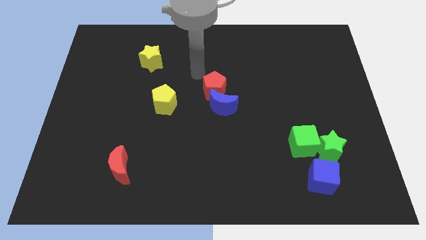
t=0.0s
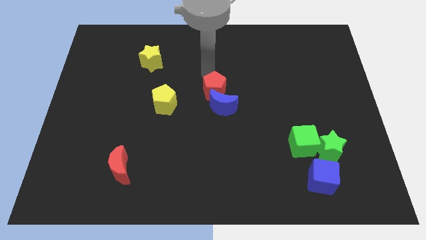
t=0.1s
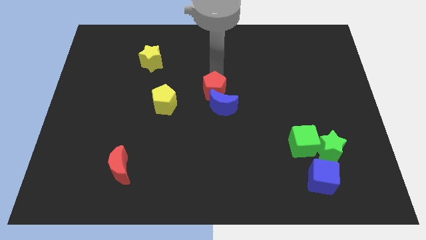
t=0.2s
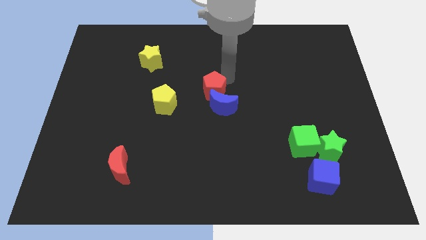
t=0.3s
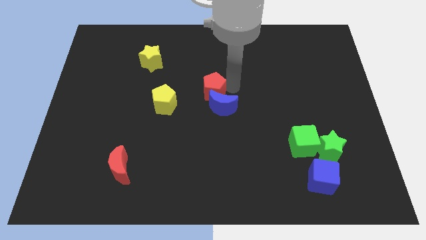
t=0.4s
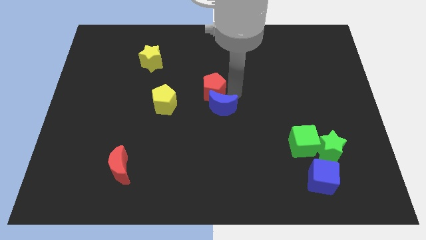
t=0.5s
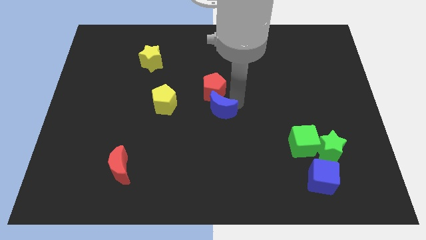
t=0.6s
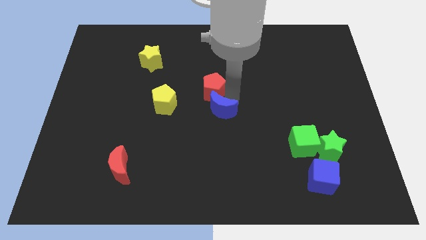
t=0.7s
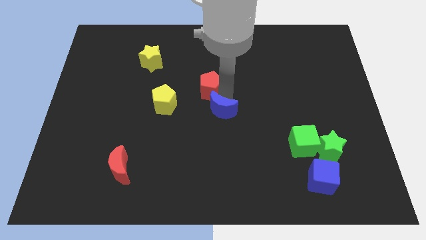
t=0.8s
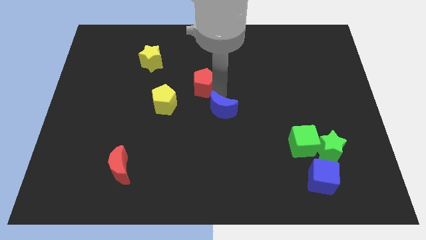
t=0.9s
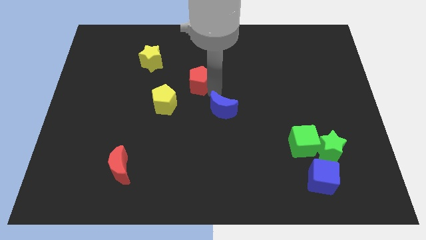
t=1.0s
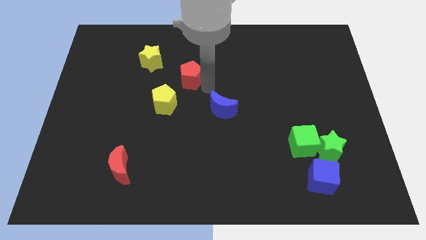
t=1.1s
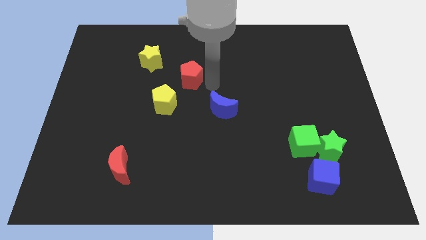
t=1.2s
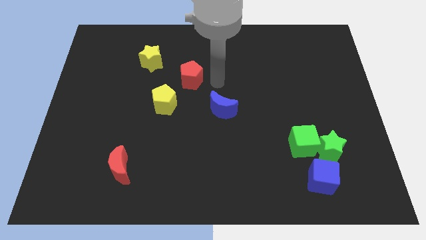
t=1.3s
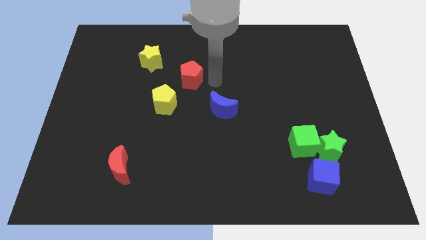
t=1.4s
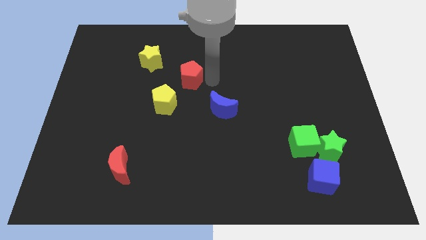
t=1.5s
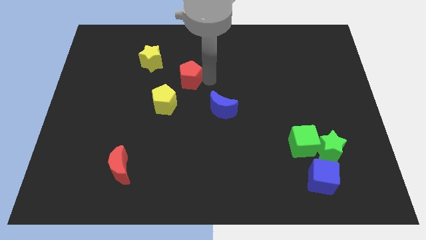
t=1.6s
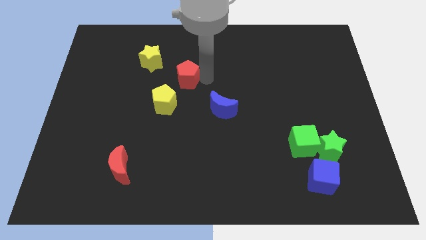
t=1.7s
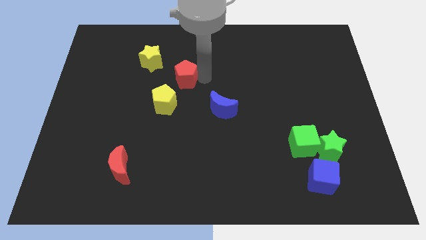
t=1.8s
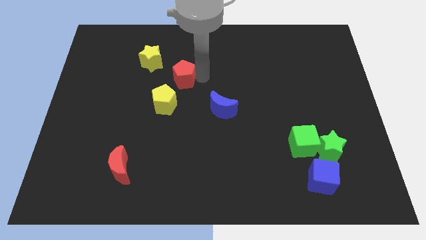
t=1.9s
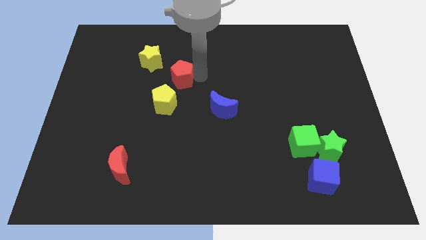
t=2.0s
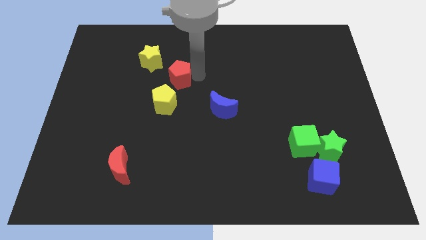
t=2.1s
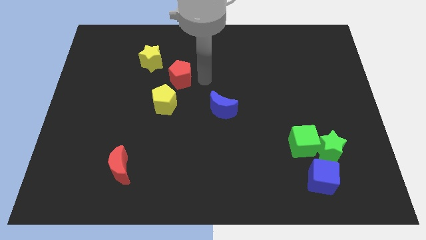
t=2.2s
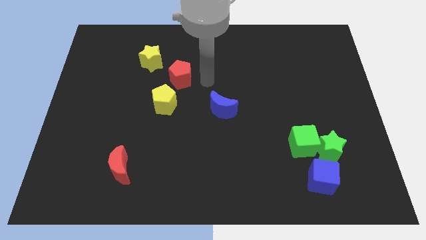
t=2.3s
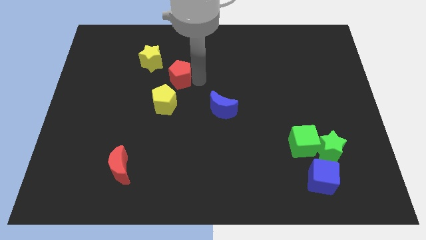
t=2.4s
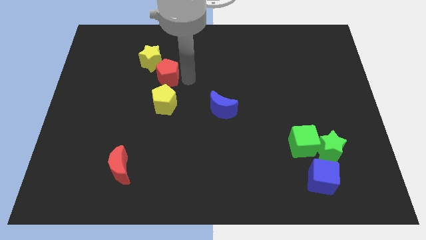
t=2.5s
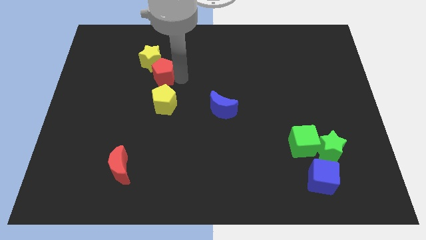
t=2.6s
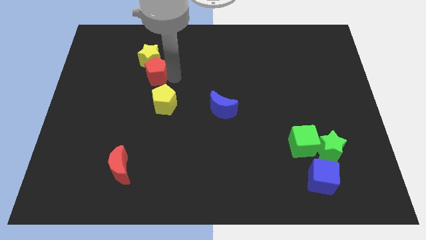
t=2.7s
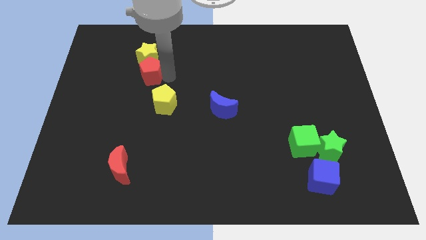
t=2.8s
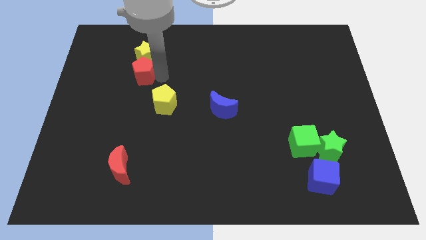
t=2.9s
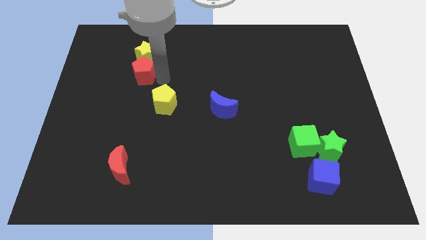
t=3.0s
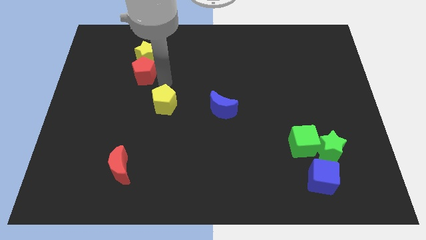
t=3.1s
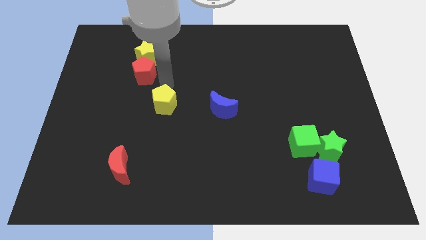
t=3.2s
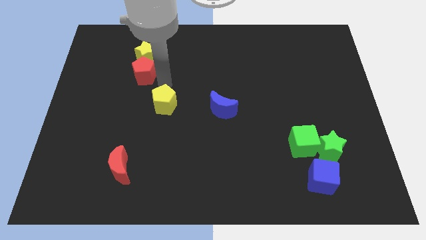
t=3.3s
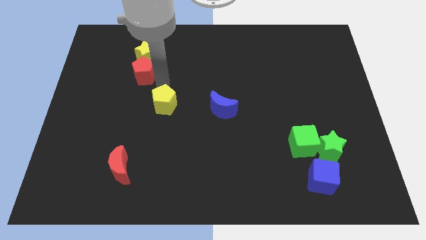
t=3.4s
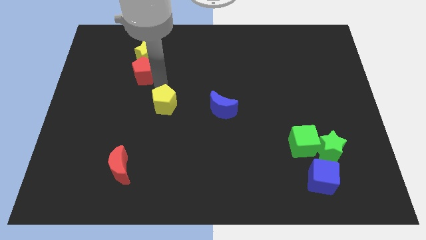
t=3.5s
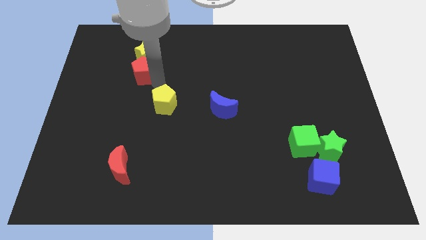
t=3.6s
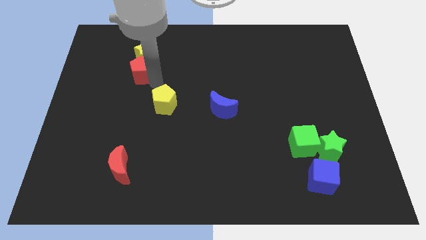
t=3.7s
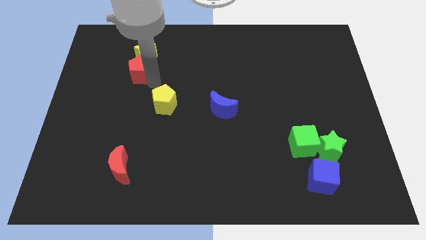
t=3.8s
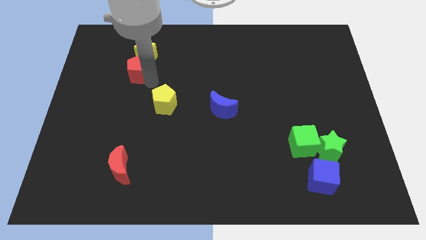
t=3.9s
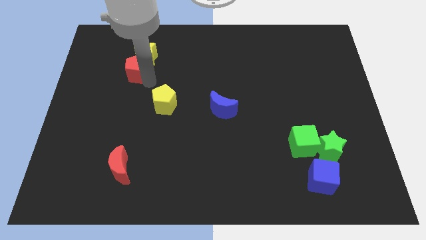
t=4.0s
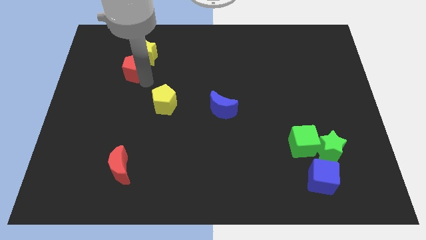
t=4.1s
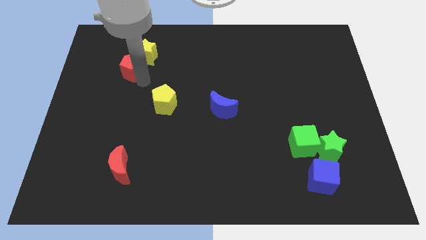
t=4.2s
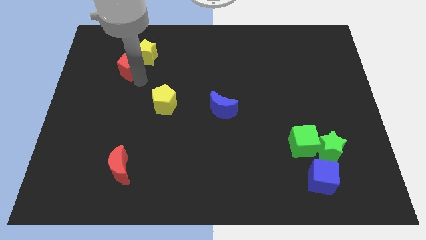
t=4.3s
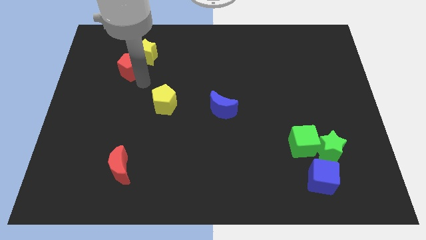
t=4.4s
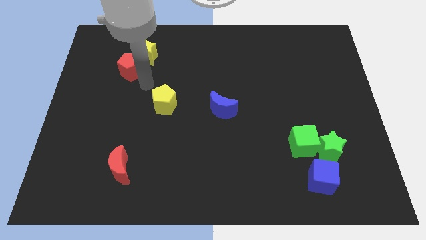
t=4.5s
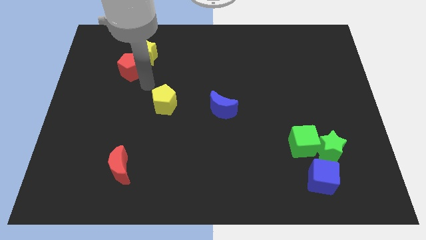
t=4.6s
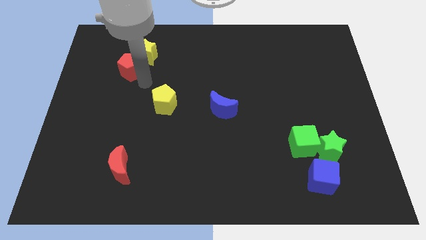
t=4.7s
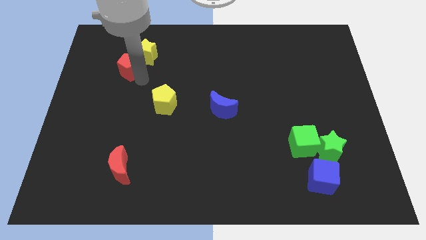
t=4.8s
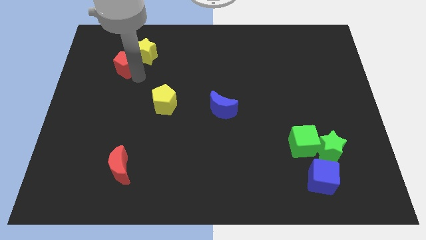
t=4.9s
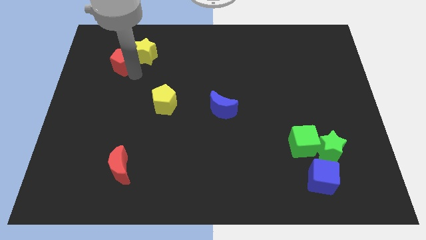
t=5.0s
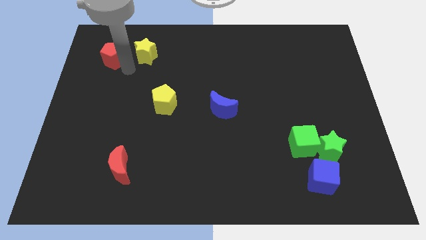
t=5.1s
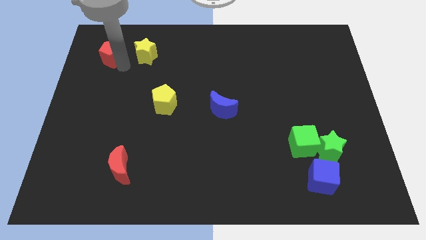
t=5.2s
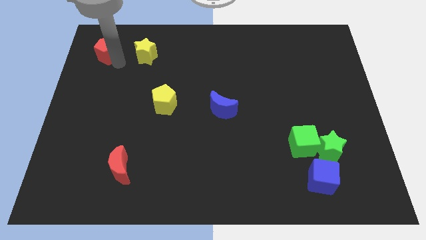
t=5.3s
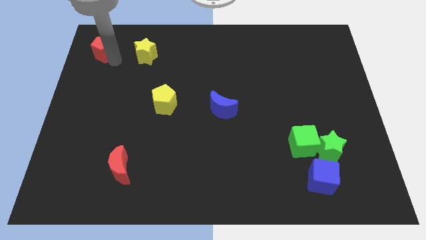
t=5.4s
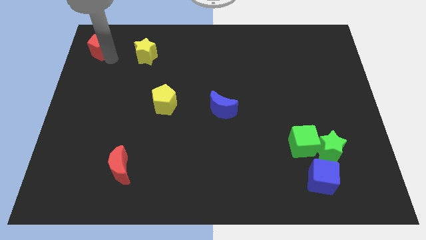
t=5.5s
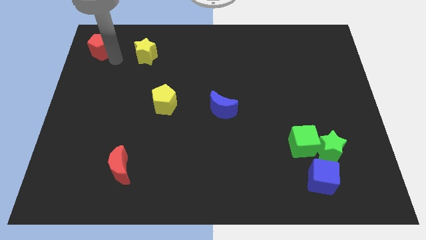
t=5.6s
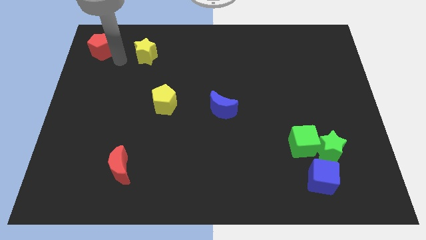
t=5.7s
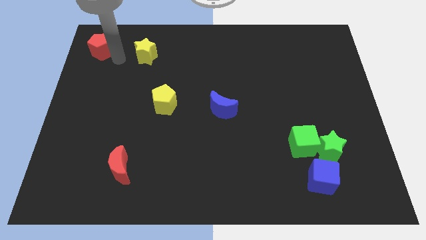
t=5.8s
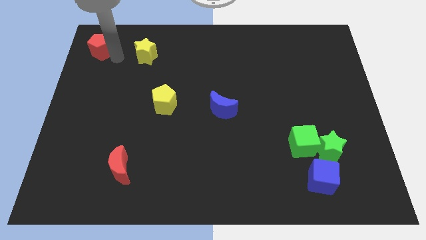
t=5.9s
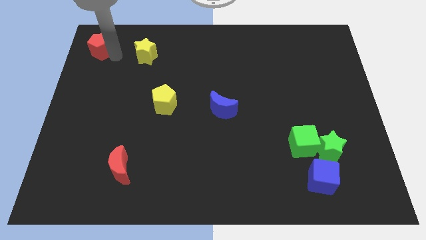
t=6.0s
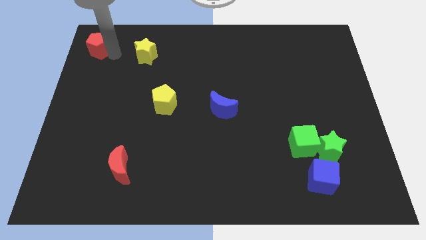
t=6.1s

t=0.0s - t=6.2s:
slide the red pentagon to the top left corner
